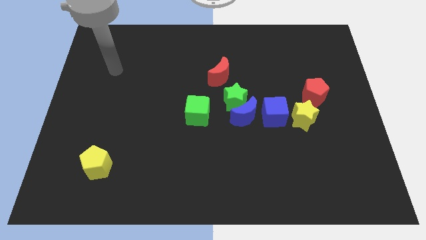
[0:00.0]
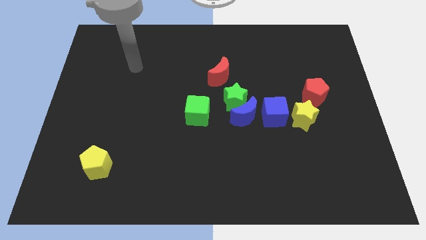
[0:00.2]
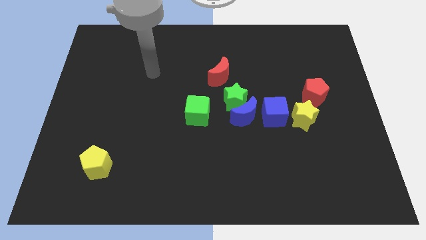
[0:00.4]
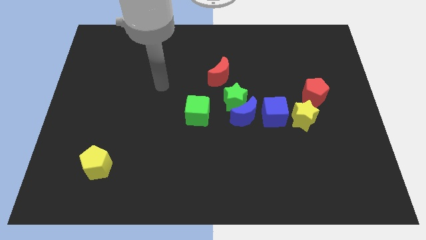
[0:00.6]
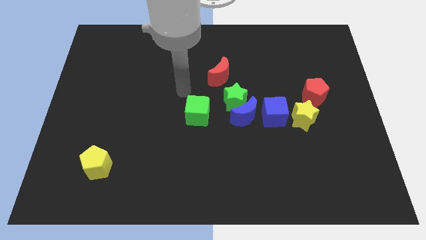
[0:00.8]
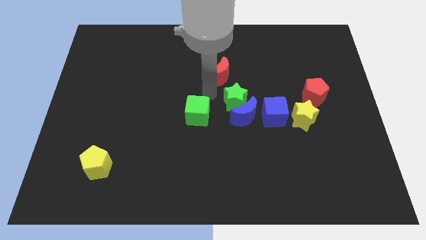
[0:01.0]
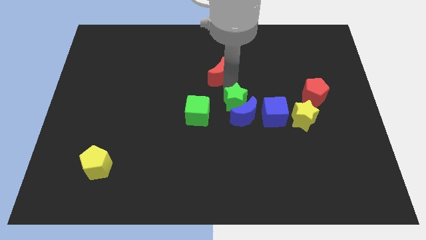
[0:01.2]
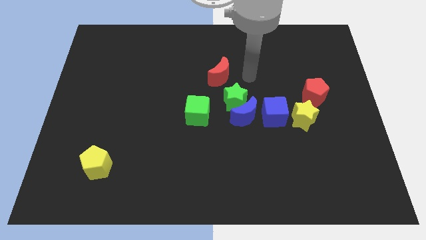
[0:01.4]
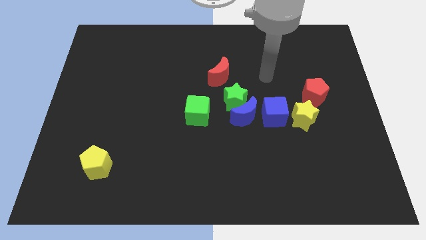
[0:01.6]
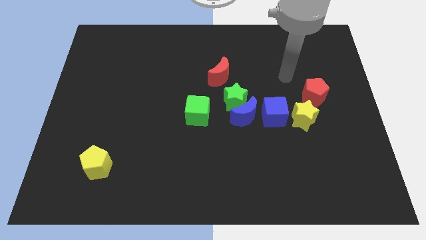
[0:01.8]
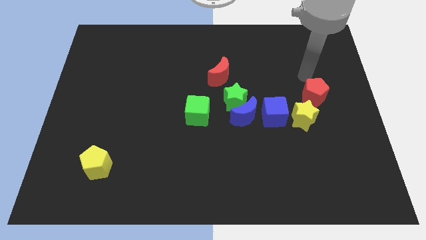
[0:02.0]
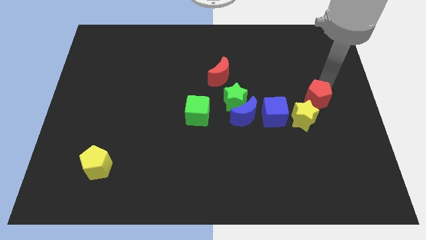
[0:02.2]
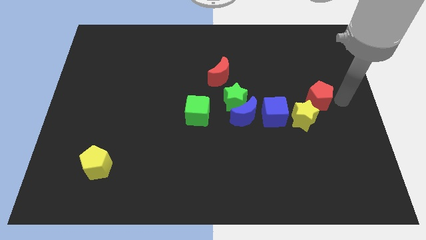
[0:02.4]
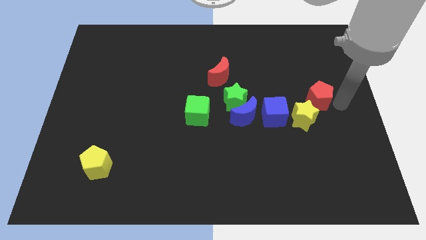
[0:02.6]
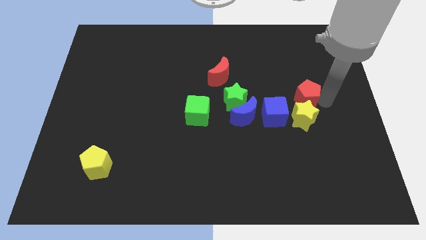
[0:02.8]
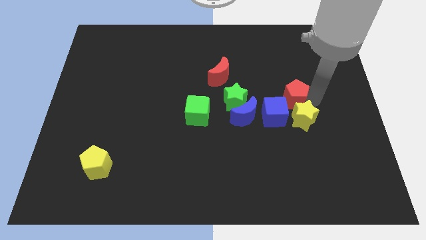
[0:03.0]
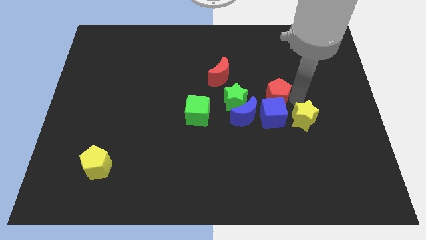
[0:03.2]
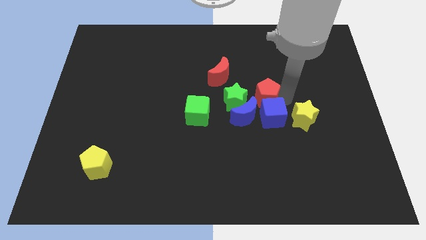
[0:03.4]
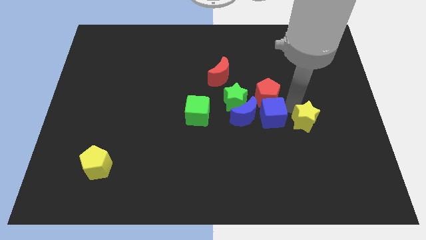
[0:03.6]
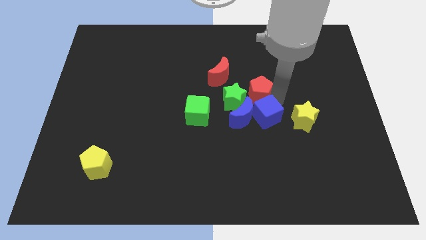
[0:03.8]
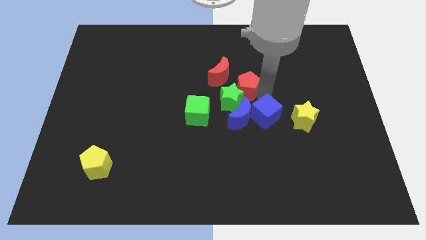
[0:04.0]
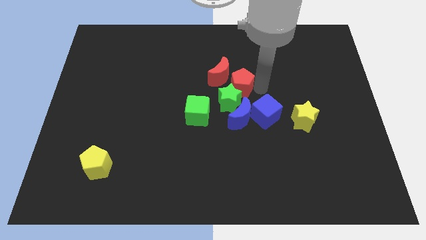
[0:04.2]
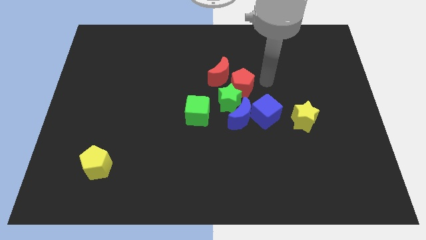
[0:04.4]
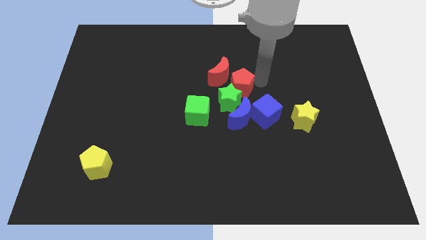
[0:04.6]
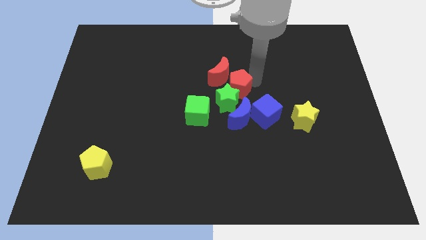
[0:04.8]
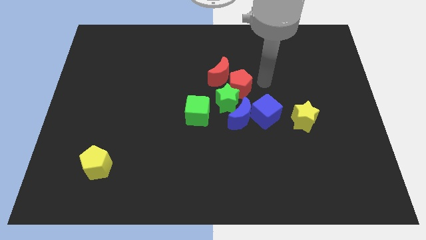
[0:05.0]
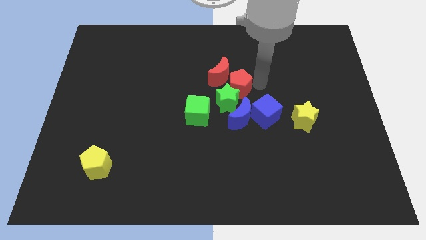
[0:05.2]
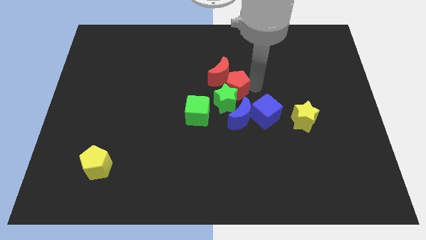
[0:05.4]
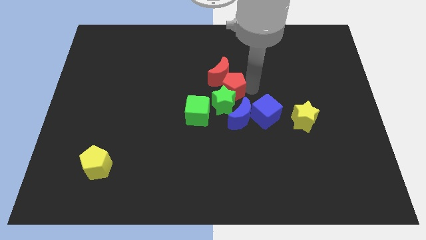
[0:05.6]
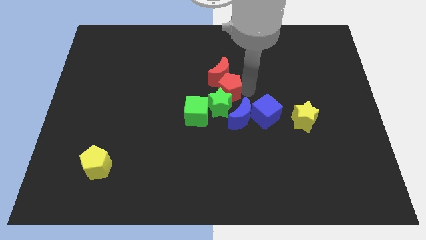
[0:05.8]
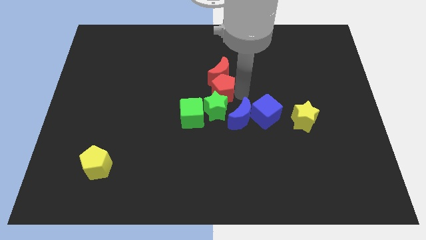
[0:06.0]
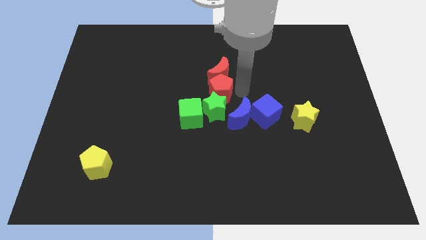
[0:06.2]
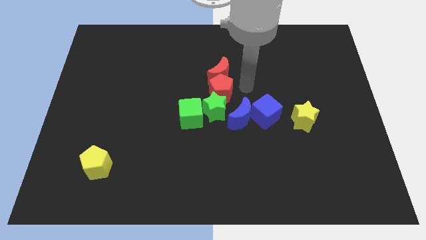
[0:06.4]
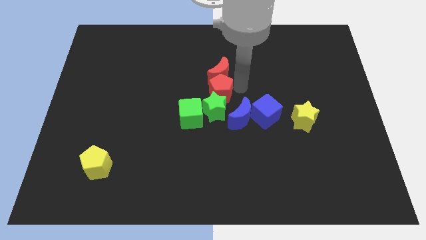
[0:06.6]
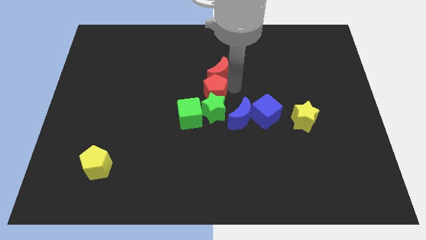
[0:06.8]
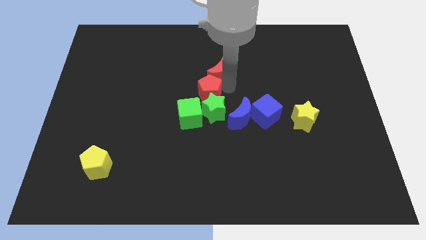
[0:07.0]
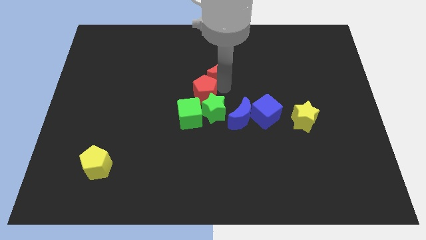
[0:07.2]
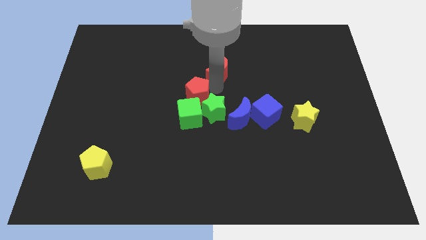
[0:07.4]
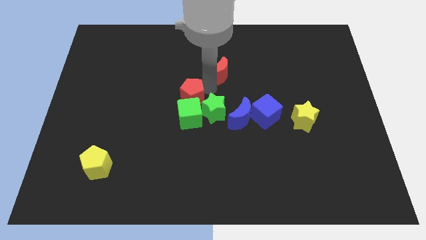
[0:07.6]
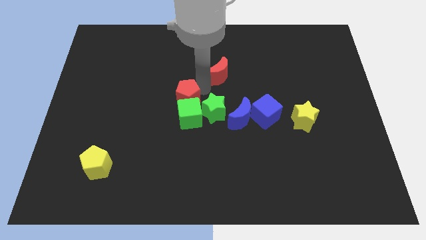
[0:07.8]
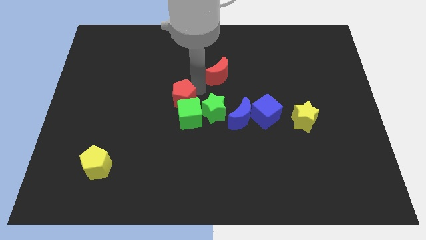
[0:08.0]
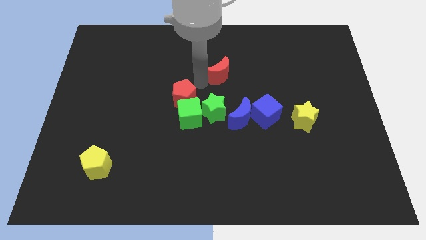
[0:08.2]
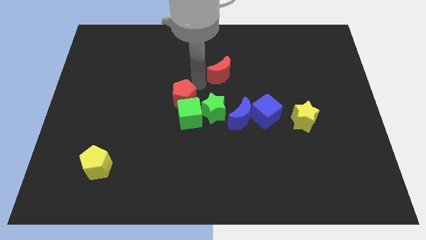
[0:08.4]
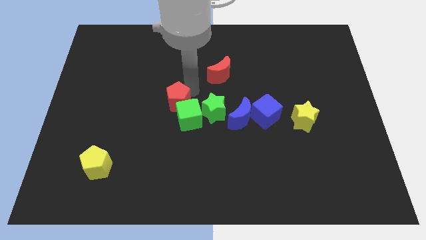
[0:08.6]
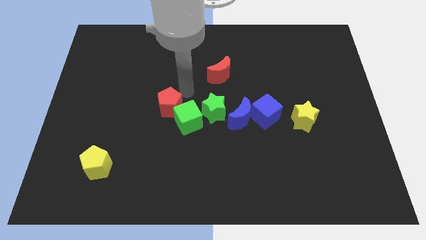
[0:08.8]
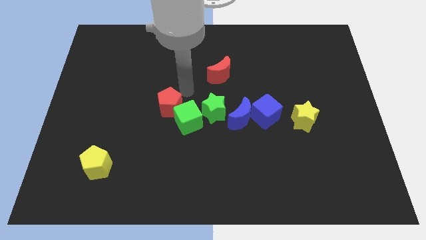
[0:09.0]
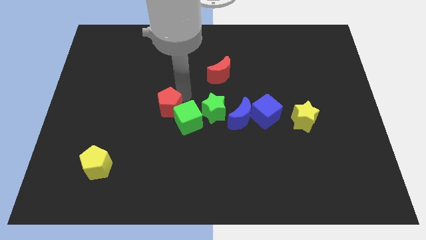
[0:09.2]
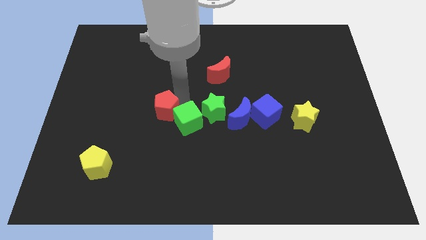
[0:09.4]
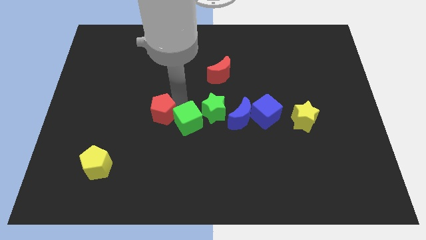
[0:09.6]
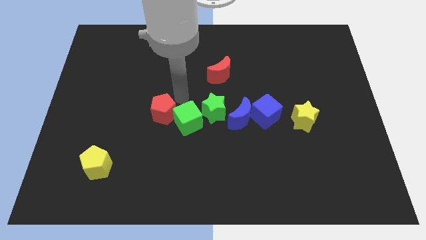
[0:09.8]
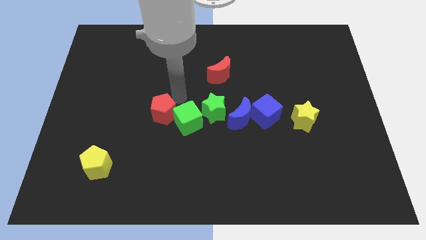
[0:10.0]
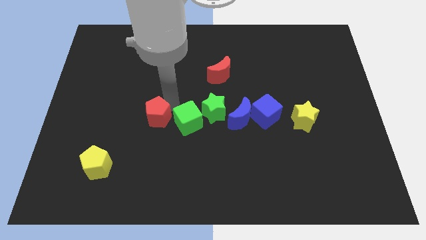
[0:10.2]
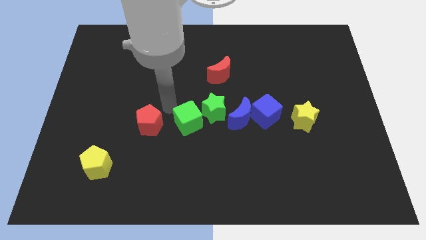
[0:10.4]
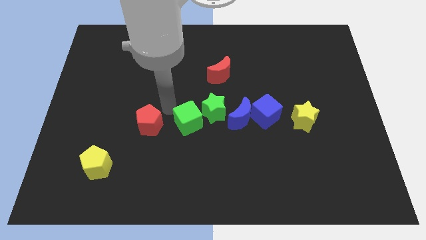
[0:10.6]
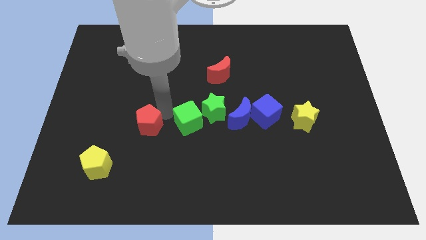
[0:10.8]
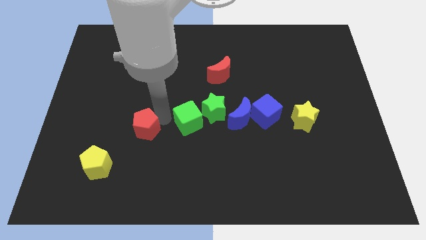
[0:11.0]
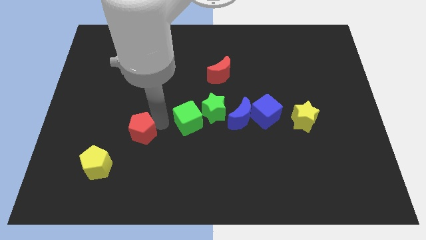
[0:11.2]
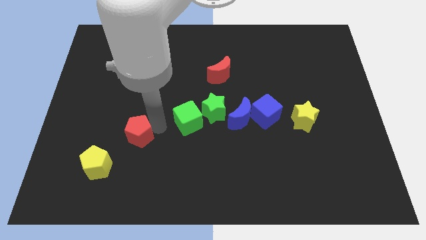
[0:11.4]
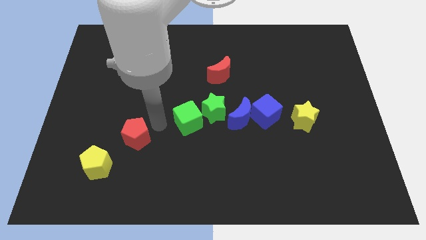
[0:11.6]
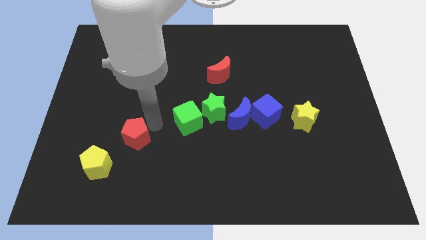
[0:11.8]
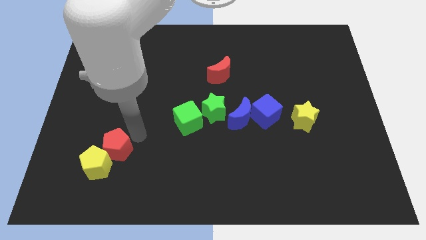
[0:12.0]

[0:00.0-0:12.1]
slide the red pentagon to the yellow pentagon
